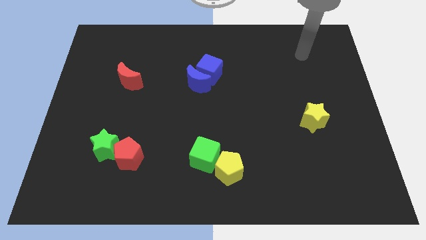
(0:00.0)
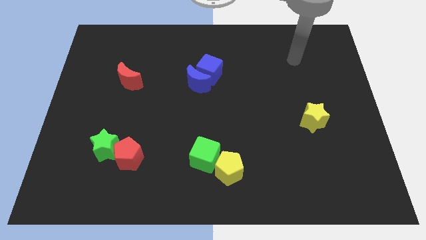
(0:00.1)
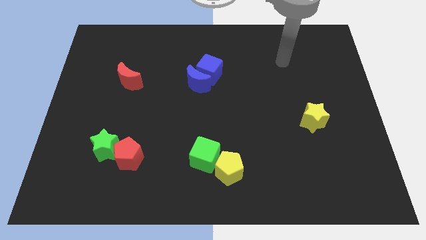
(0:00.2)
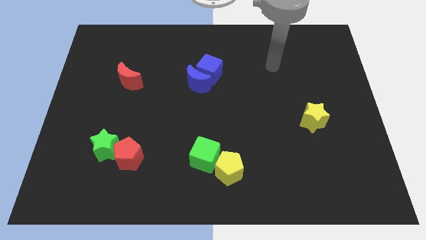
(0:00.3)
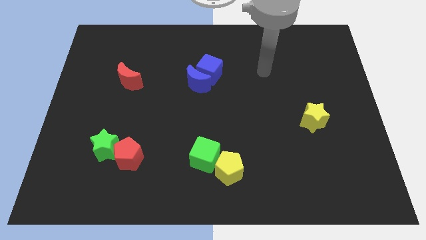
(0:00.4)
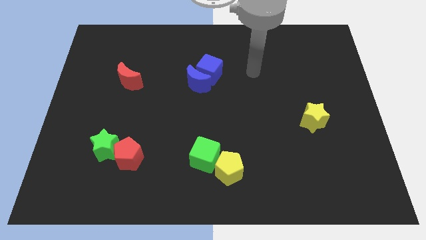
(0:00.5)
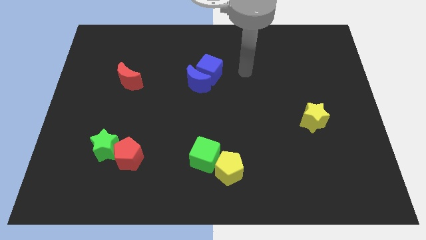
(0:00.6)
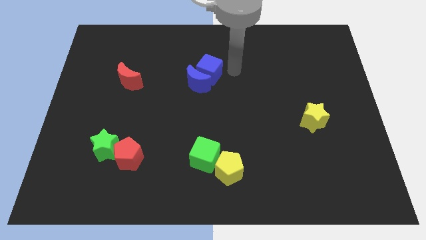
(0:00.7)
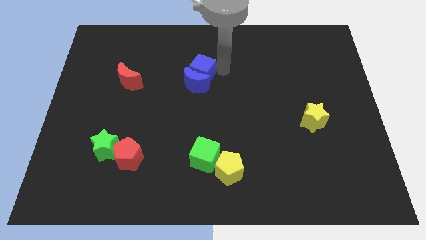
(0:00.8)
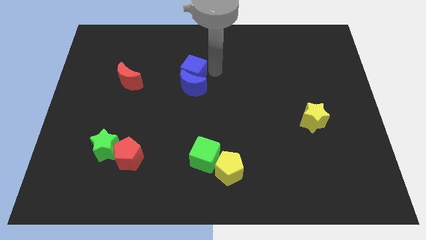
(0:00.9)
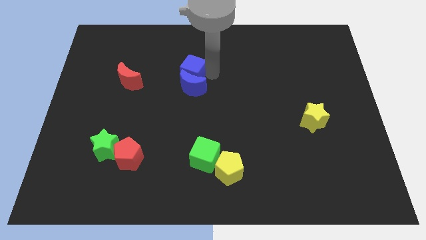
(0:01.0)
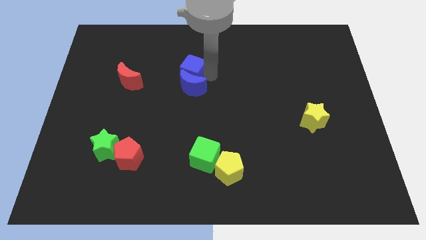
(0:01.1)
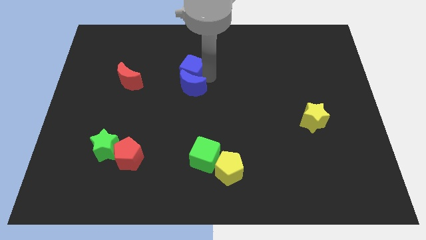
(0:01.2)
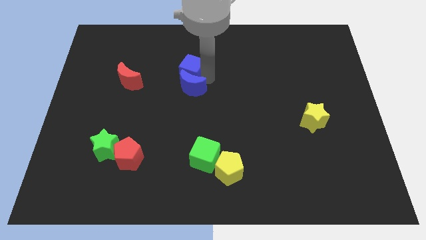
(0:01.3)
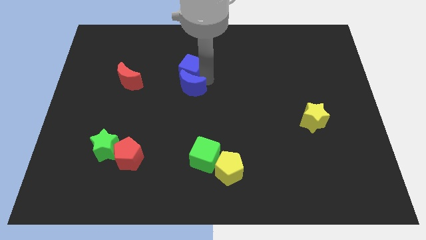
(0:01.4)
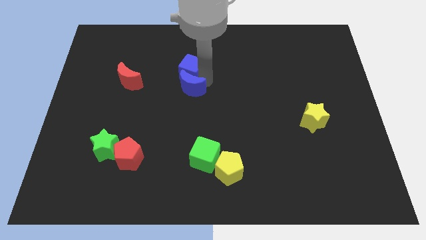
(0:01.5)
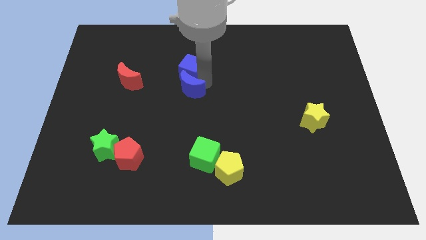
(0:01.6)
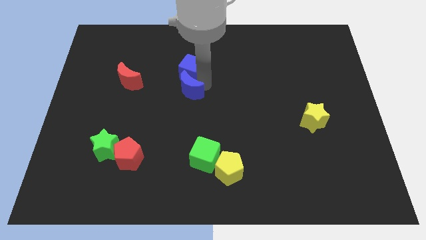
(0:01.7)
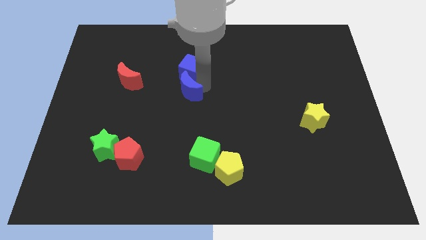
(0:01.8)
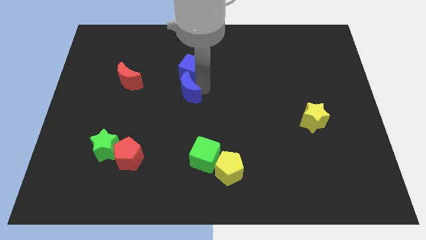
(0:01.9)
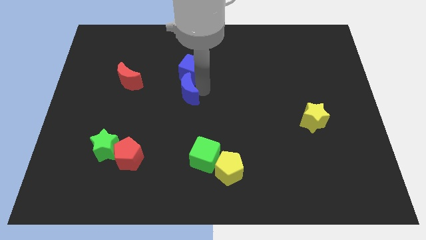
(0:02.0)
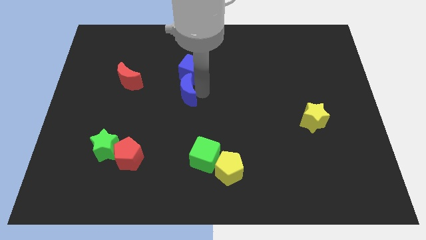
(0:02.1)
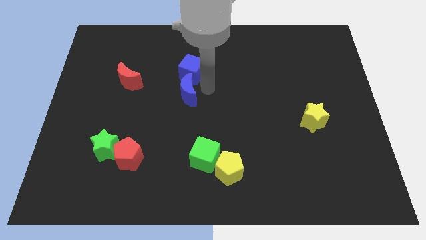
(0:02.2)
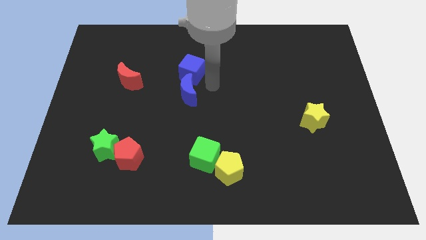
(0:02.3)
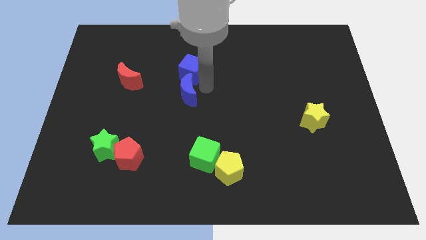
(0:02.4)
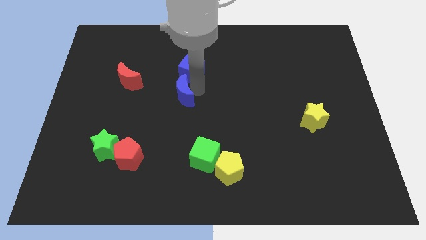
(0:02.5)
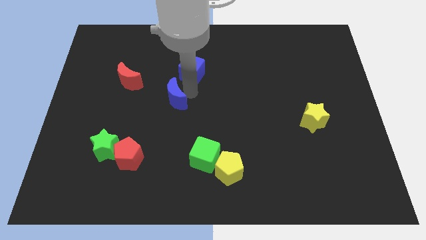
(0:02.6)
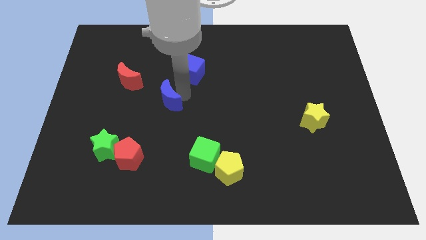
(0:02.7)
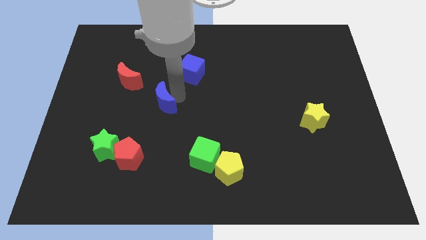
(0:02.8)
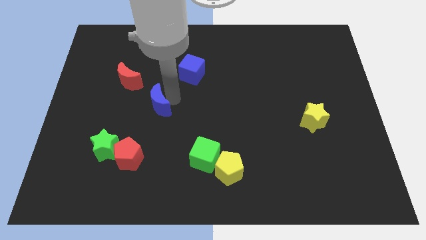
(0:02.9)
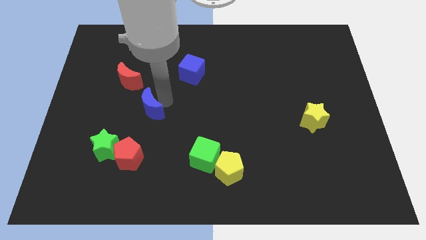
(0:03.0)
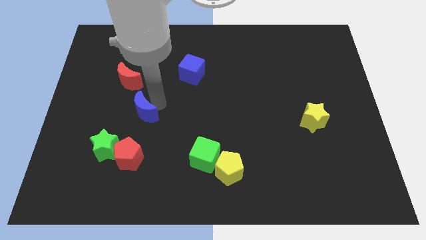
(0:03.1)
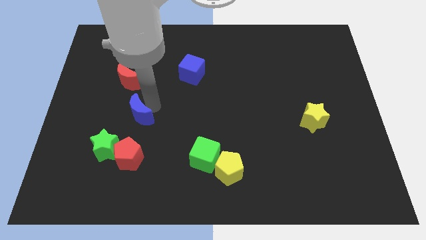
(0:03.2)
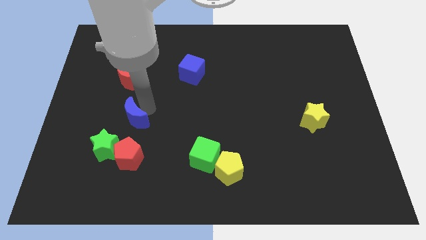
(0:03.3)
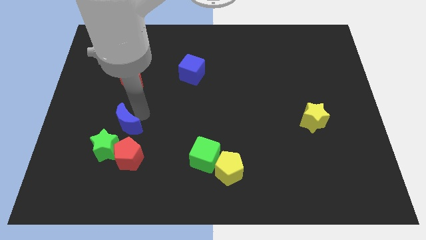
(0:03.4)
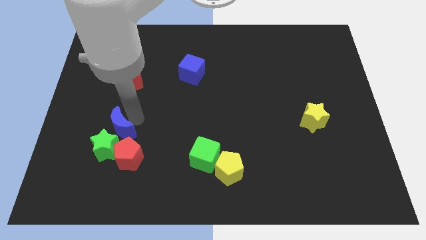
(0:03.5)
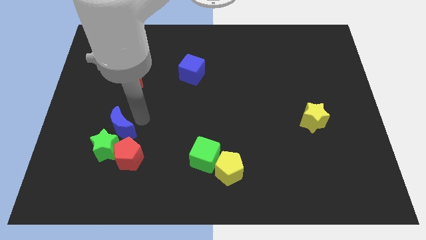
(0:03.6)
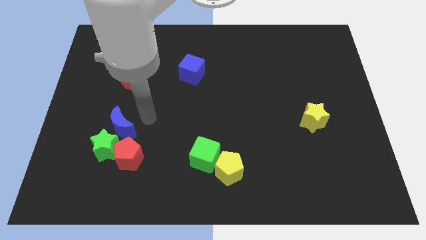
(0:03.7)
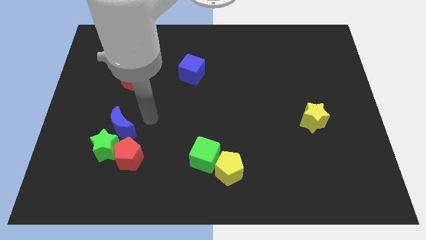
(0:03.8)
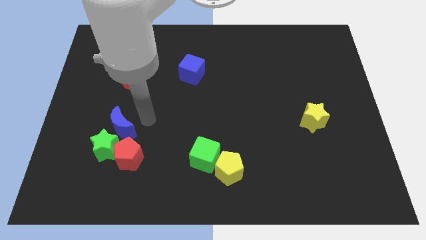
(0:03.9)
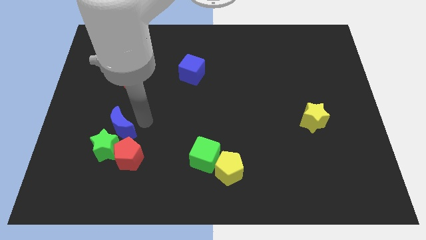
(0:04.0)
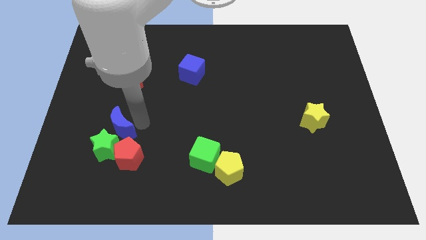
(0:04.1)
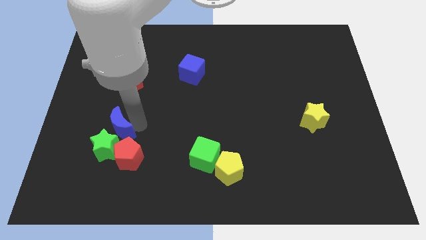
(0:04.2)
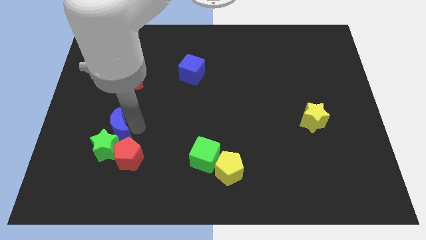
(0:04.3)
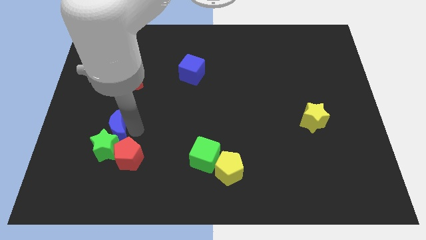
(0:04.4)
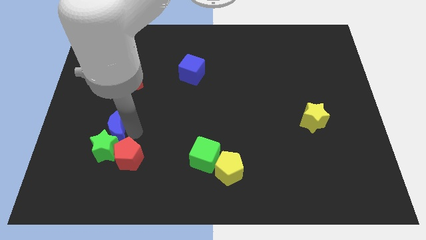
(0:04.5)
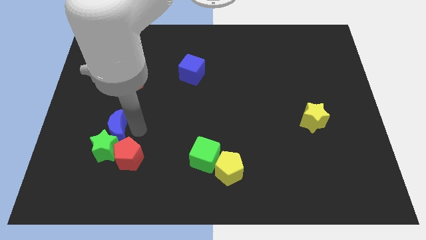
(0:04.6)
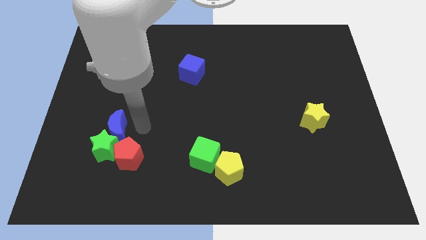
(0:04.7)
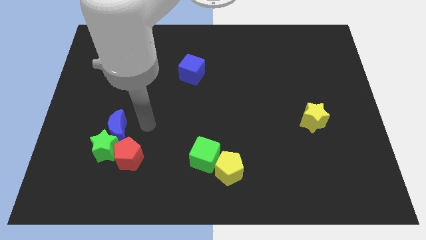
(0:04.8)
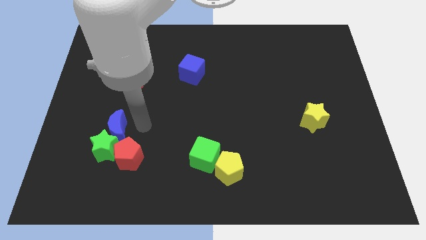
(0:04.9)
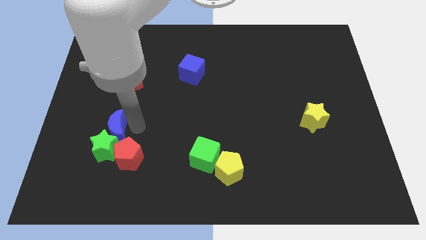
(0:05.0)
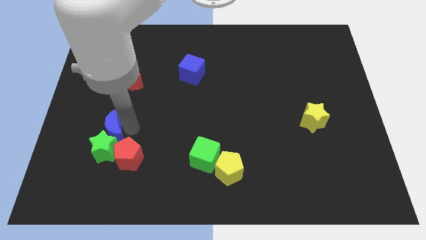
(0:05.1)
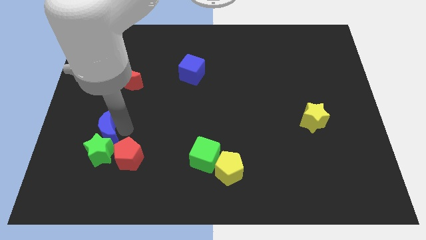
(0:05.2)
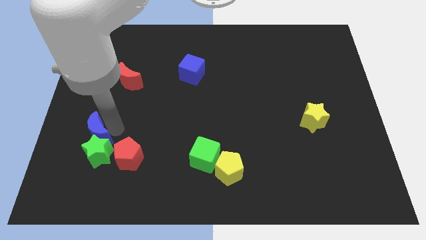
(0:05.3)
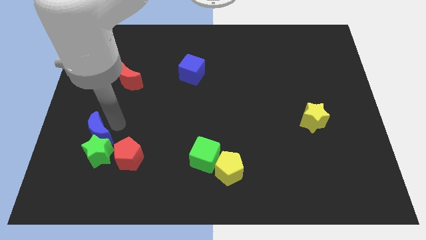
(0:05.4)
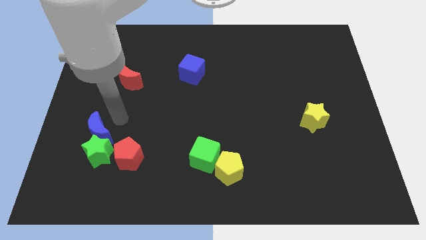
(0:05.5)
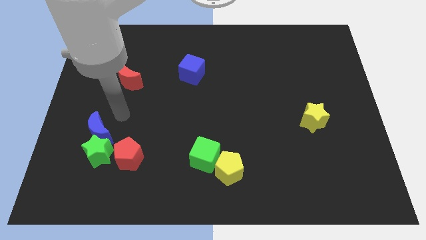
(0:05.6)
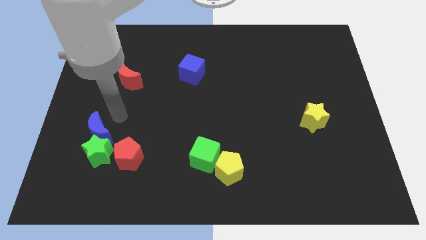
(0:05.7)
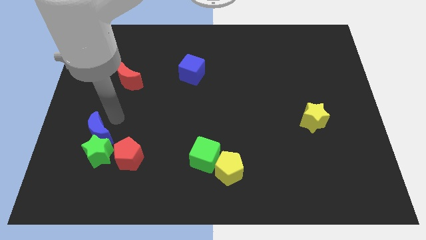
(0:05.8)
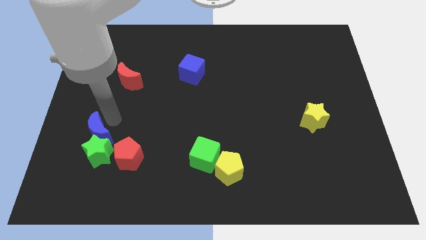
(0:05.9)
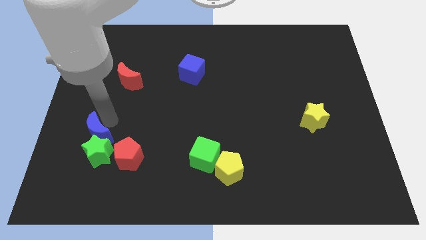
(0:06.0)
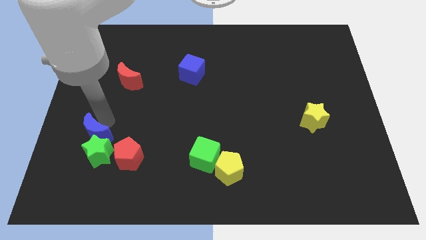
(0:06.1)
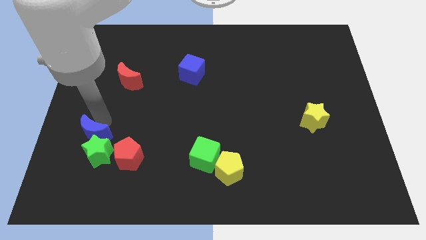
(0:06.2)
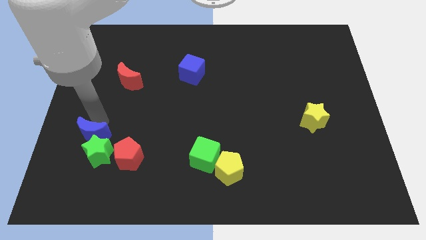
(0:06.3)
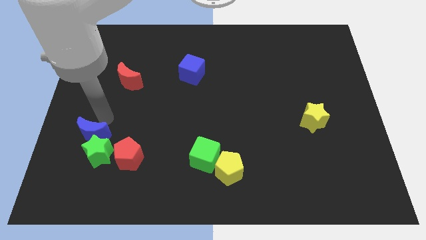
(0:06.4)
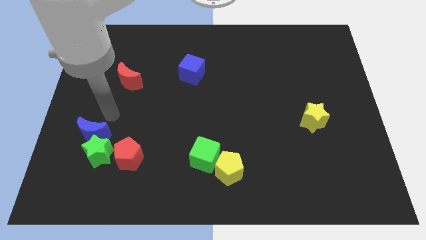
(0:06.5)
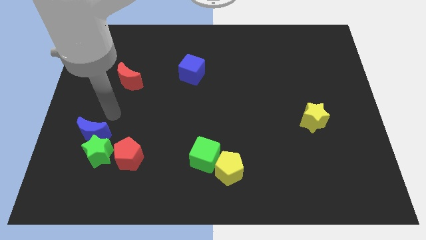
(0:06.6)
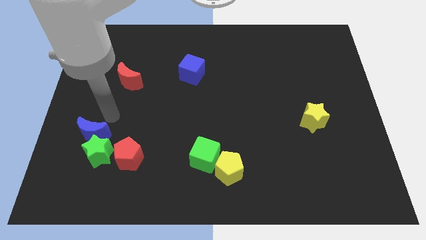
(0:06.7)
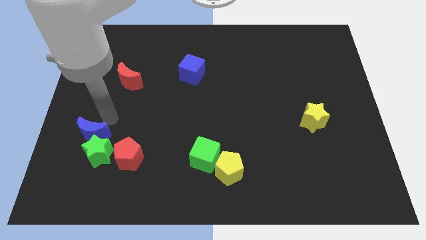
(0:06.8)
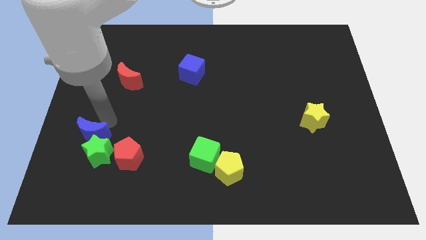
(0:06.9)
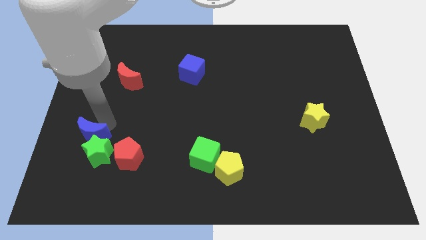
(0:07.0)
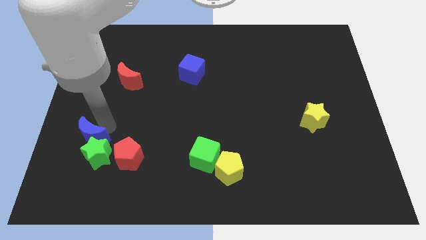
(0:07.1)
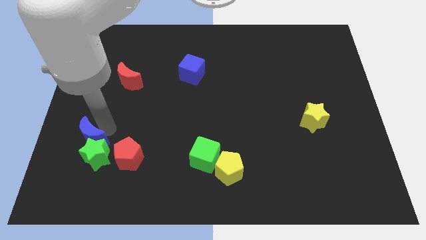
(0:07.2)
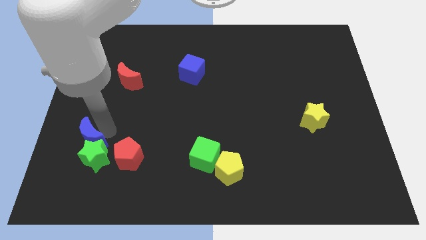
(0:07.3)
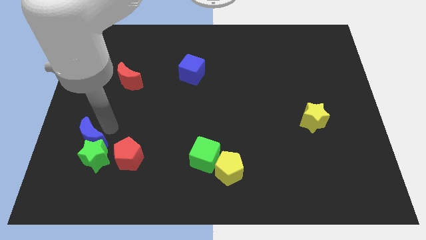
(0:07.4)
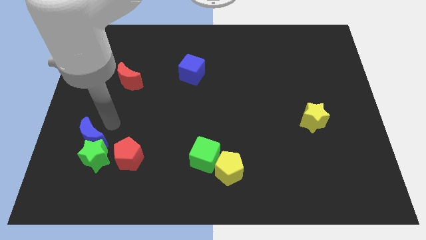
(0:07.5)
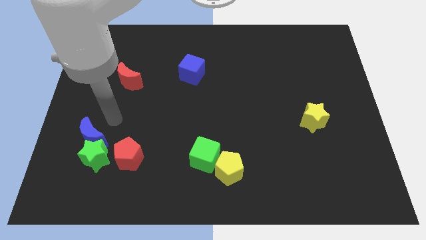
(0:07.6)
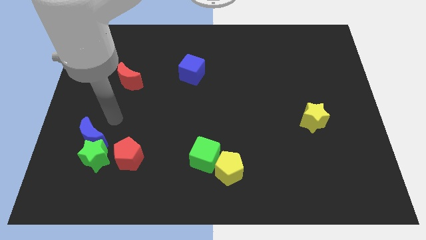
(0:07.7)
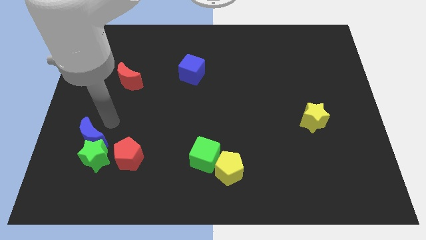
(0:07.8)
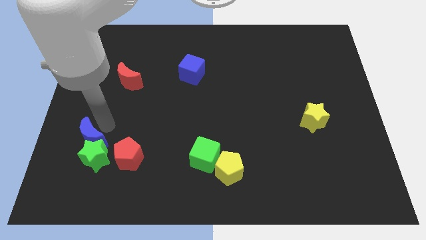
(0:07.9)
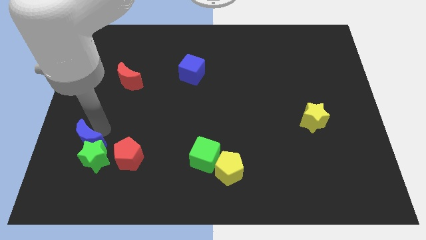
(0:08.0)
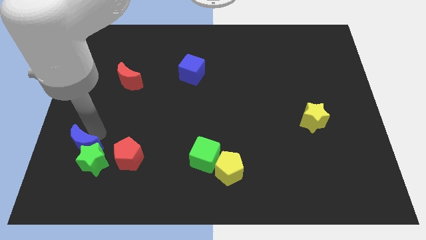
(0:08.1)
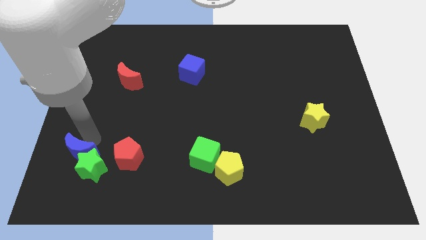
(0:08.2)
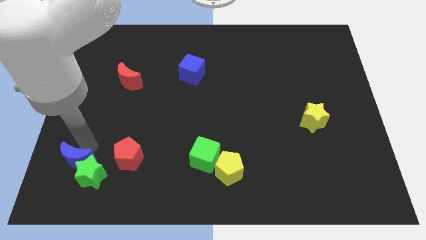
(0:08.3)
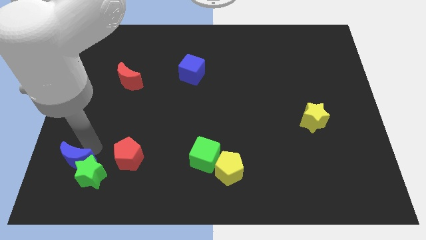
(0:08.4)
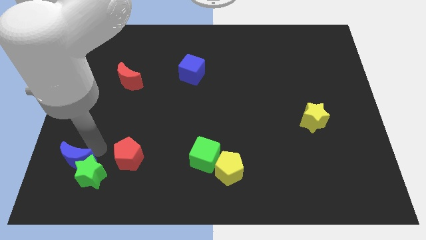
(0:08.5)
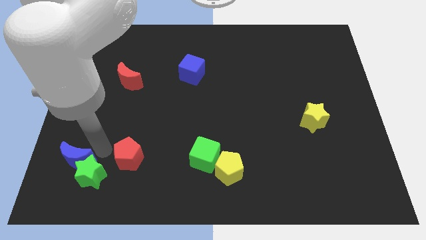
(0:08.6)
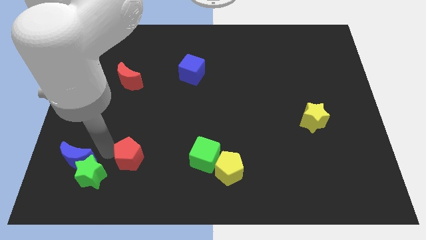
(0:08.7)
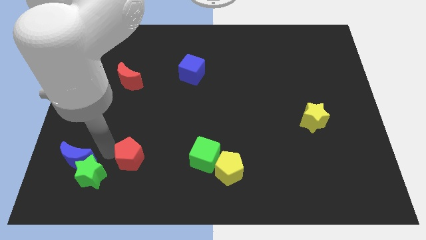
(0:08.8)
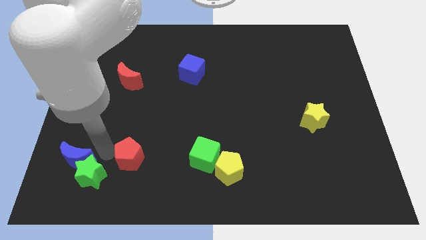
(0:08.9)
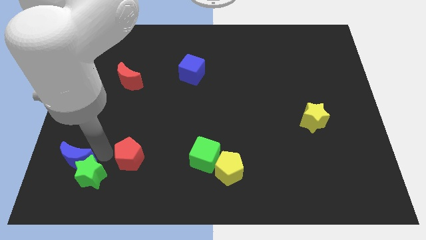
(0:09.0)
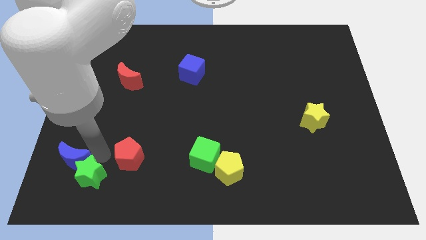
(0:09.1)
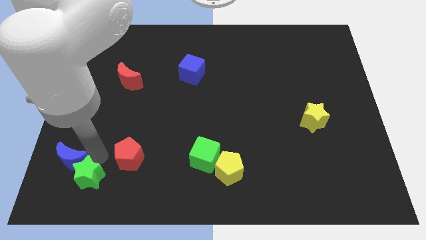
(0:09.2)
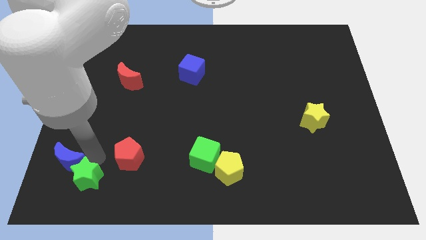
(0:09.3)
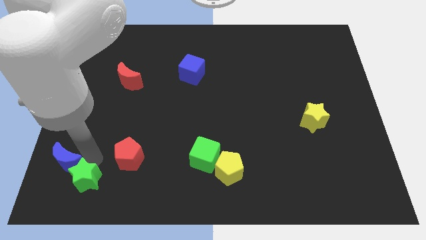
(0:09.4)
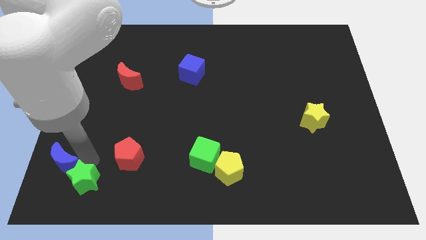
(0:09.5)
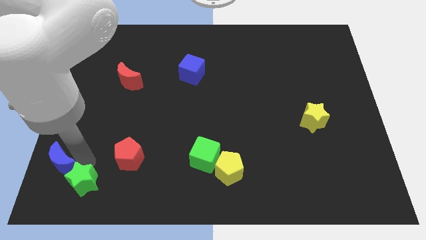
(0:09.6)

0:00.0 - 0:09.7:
push the blue moon to the bottom left
